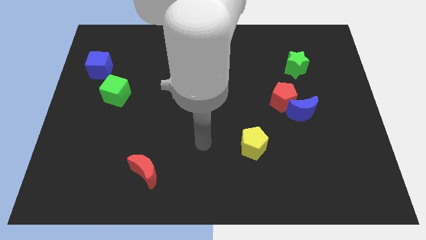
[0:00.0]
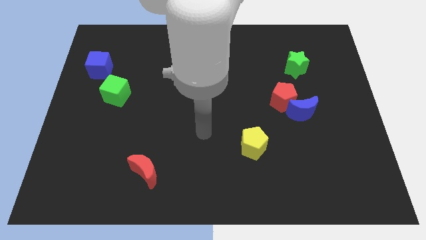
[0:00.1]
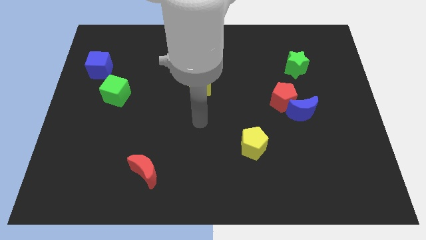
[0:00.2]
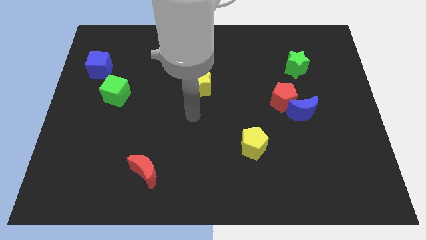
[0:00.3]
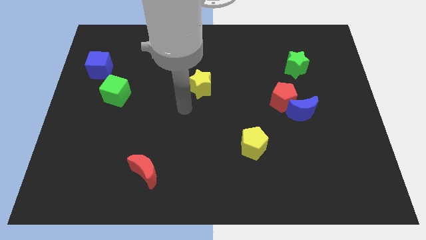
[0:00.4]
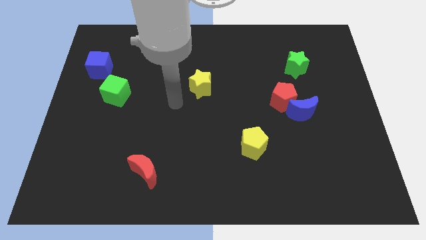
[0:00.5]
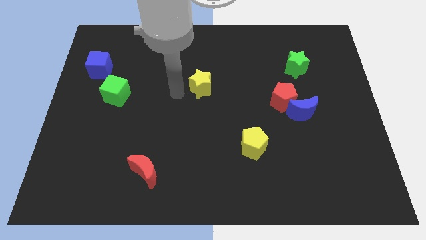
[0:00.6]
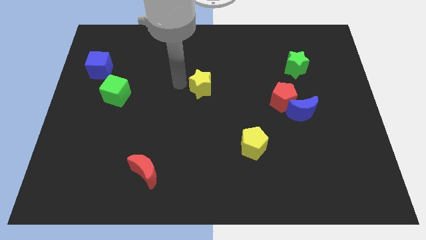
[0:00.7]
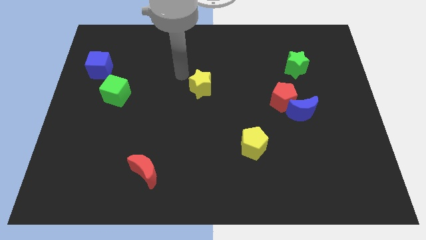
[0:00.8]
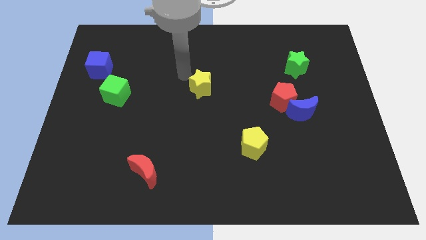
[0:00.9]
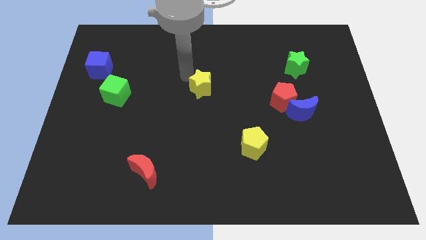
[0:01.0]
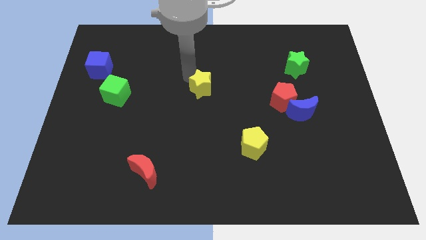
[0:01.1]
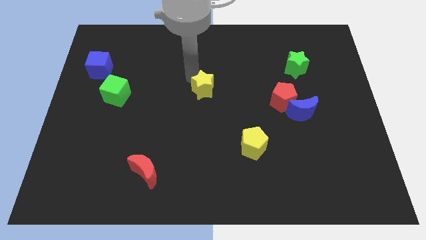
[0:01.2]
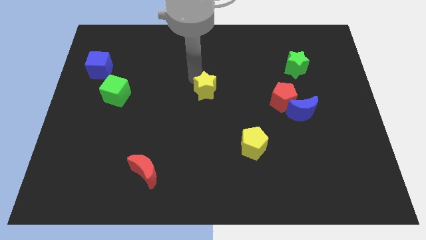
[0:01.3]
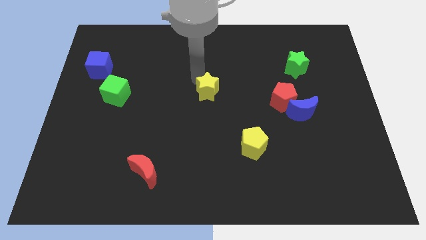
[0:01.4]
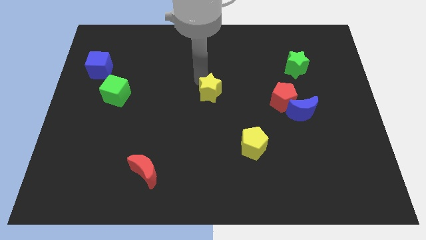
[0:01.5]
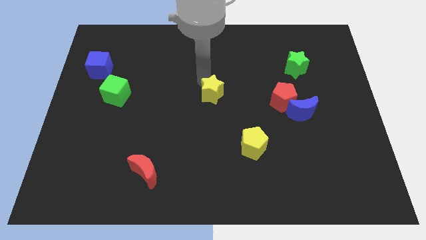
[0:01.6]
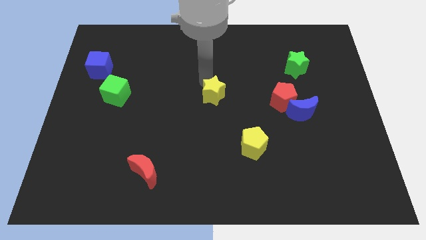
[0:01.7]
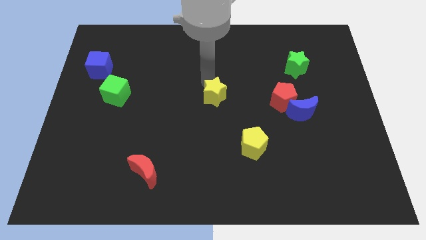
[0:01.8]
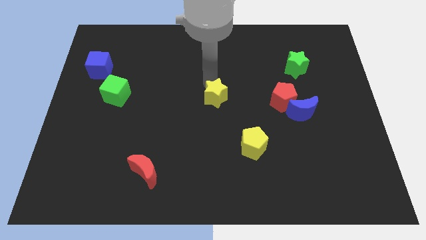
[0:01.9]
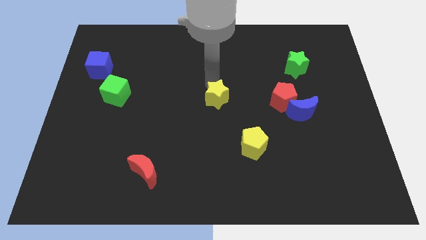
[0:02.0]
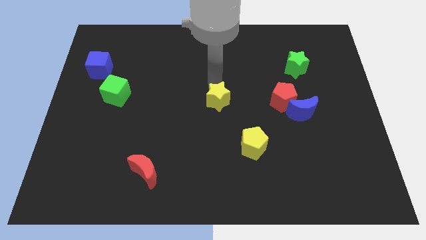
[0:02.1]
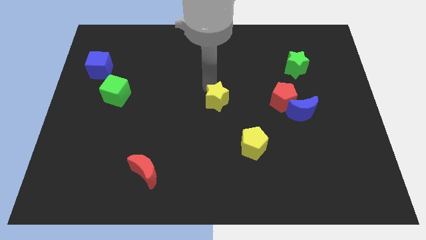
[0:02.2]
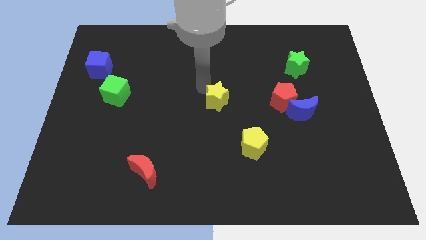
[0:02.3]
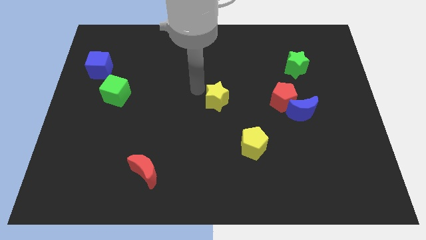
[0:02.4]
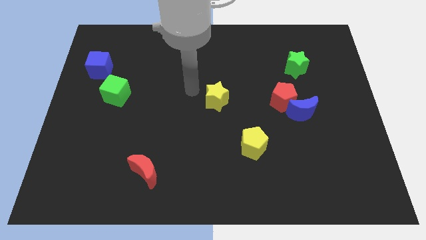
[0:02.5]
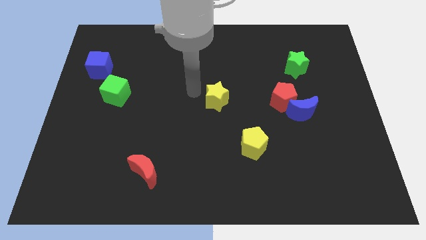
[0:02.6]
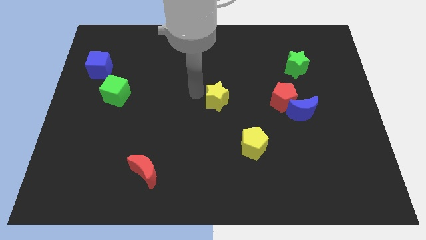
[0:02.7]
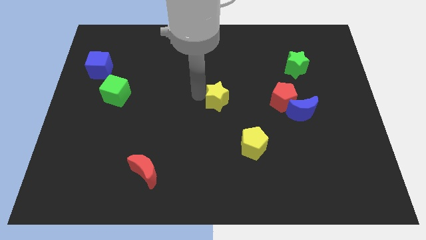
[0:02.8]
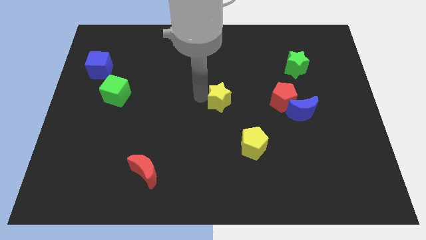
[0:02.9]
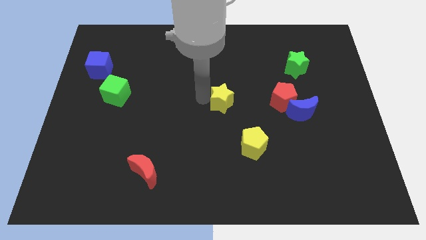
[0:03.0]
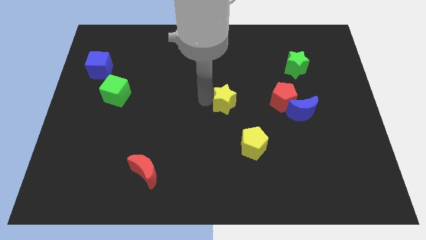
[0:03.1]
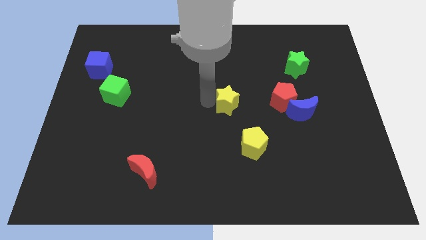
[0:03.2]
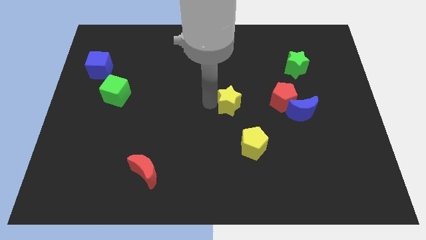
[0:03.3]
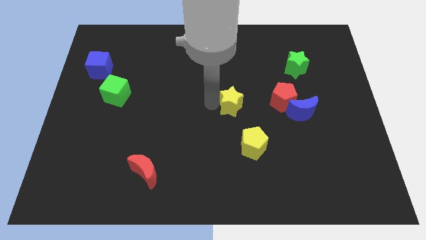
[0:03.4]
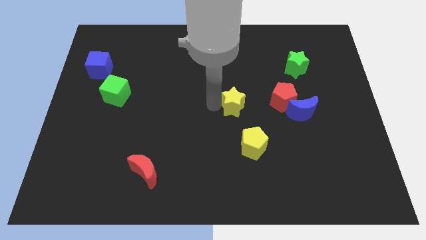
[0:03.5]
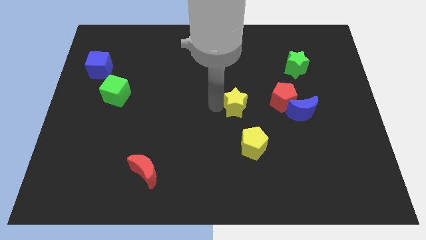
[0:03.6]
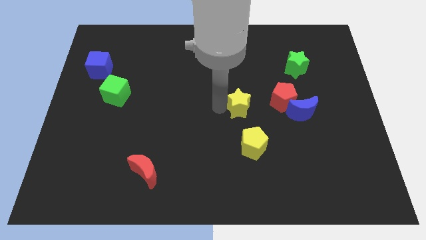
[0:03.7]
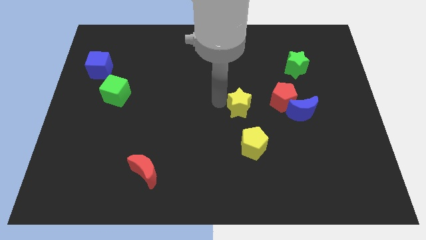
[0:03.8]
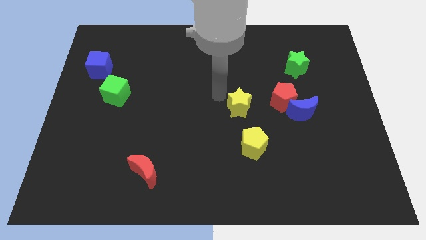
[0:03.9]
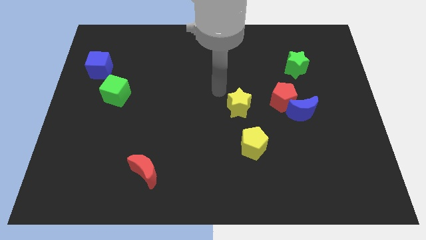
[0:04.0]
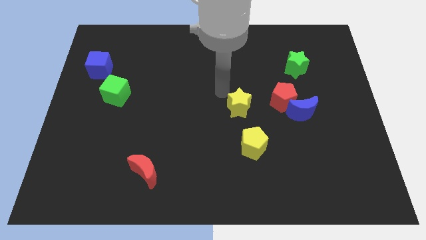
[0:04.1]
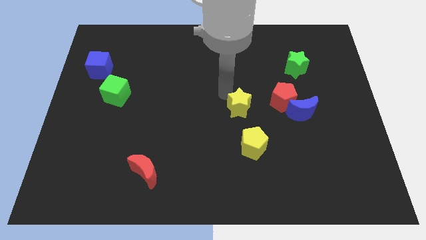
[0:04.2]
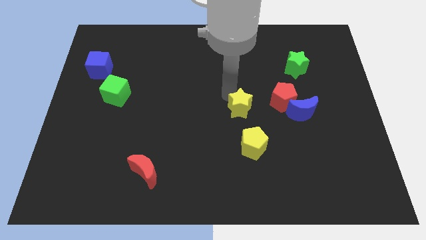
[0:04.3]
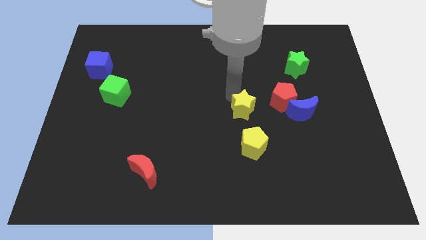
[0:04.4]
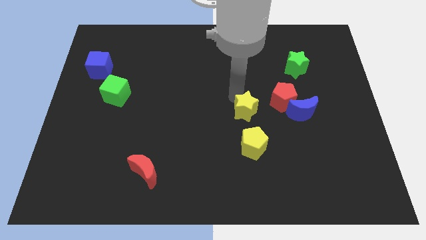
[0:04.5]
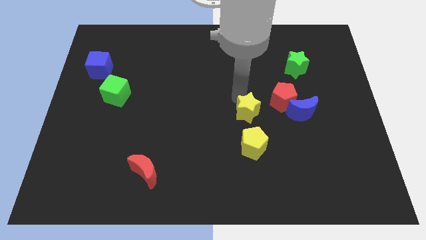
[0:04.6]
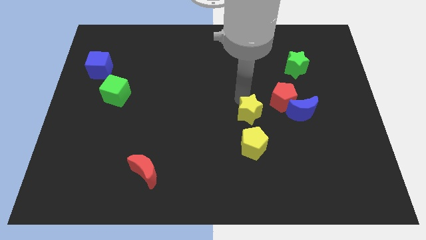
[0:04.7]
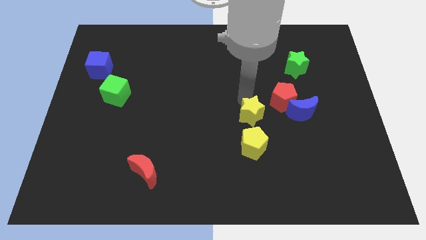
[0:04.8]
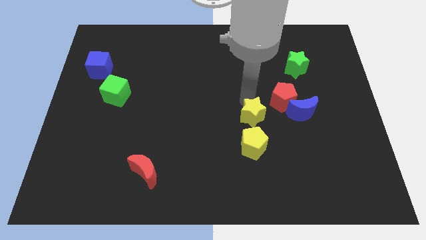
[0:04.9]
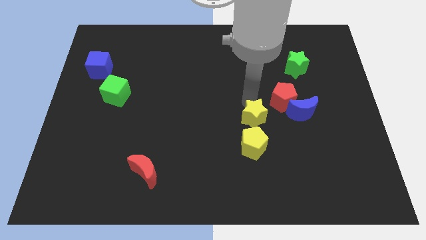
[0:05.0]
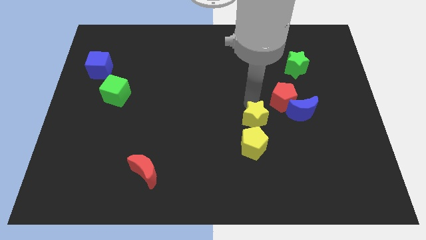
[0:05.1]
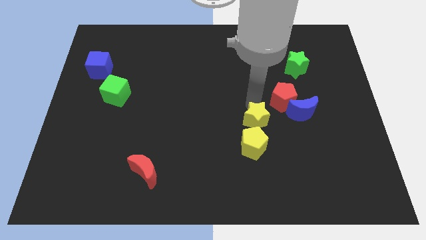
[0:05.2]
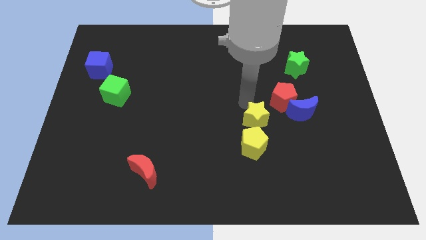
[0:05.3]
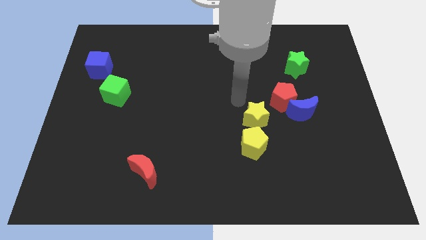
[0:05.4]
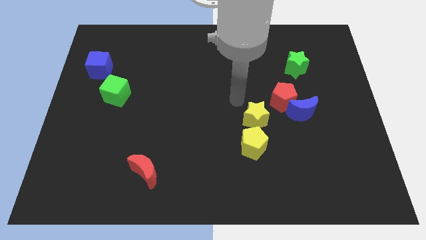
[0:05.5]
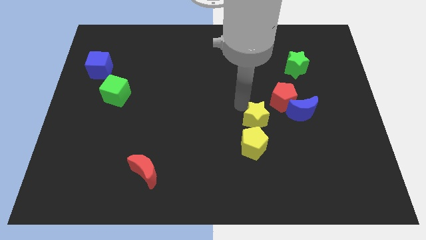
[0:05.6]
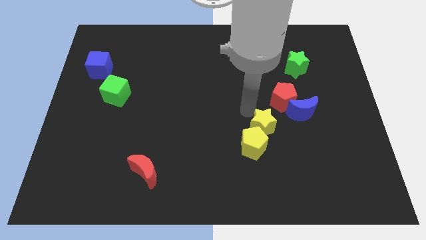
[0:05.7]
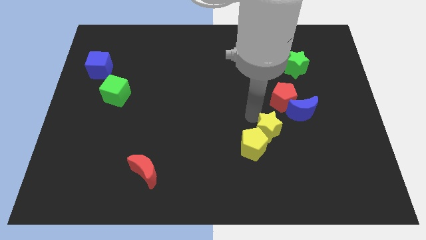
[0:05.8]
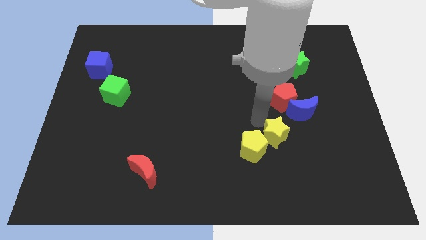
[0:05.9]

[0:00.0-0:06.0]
slide the yellow star diagonally downwards and right

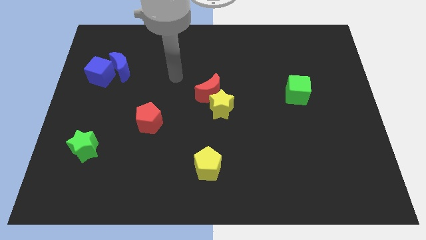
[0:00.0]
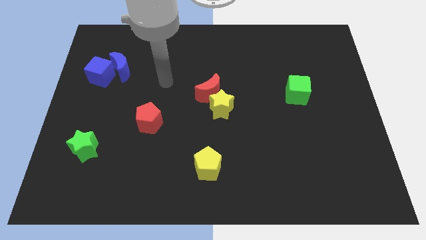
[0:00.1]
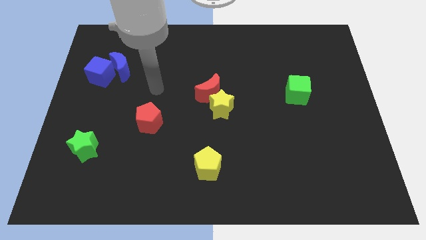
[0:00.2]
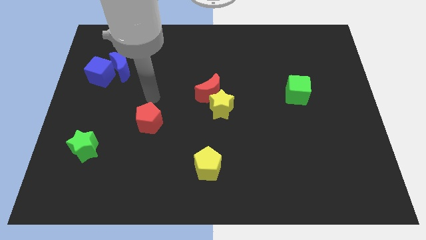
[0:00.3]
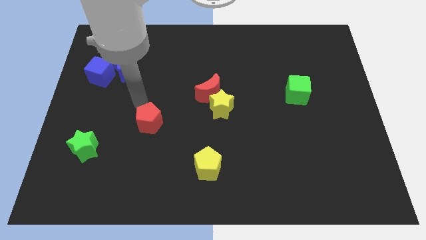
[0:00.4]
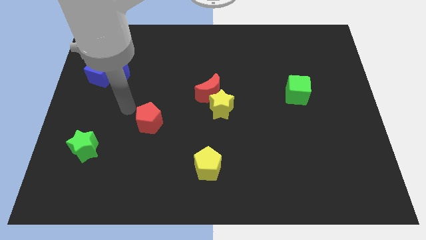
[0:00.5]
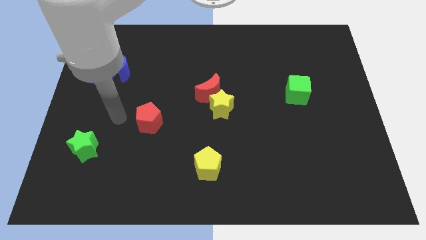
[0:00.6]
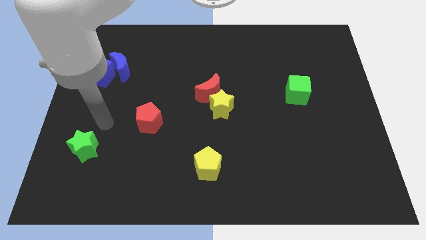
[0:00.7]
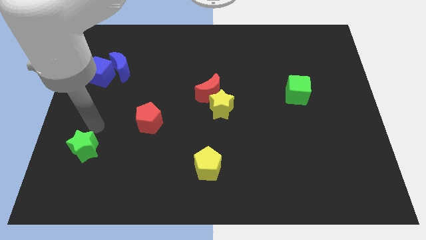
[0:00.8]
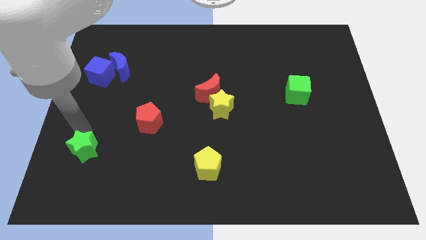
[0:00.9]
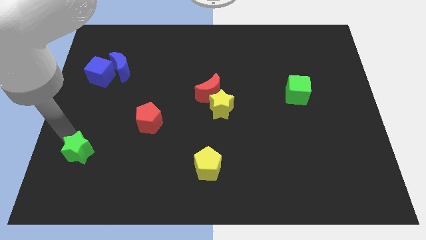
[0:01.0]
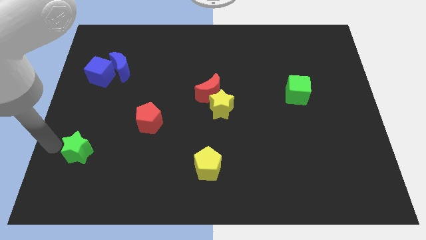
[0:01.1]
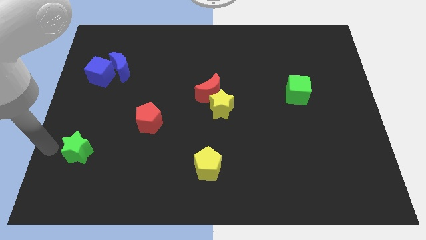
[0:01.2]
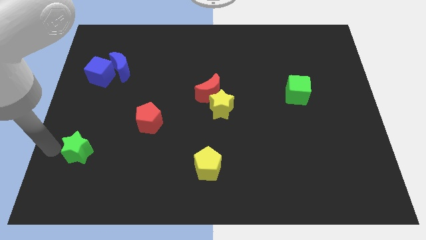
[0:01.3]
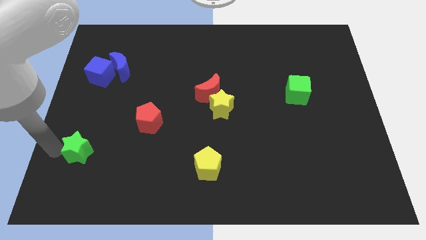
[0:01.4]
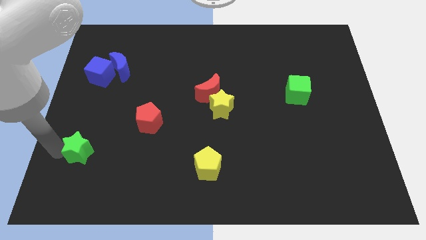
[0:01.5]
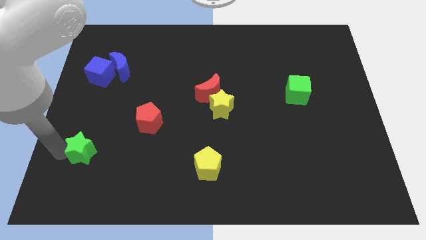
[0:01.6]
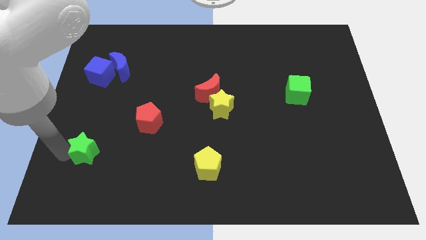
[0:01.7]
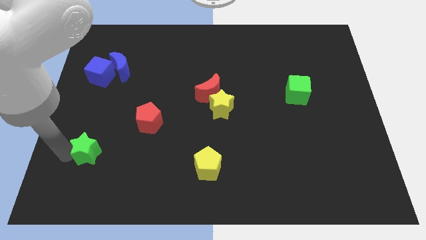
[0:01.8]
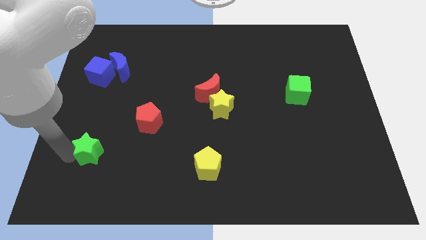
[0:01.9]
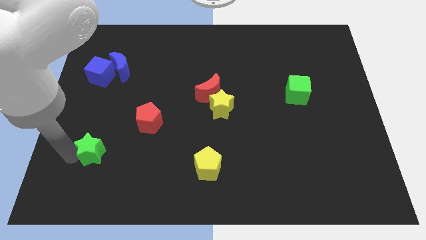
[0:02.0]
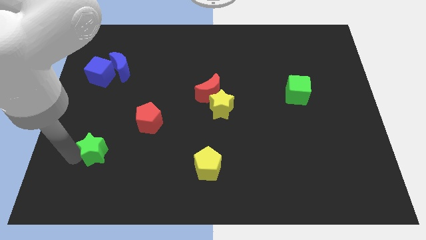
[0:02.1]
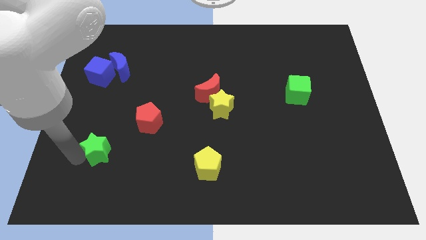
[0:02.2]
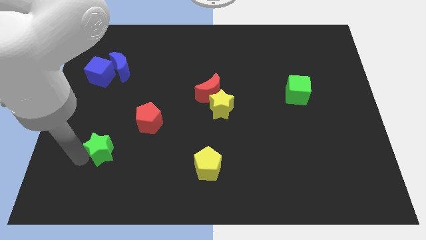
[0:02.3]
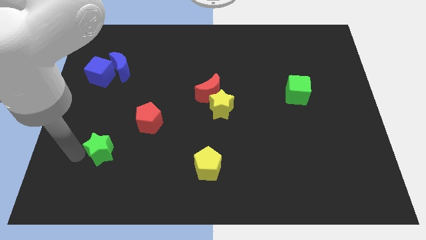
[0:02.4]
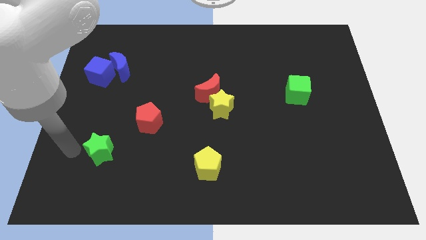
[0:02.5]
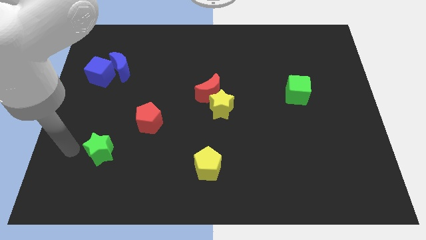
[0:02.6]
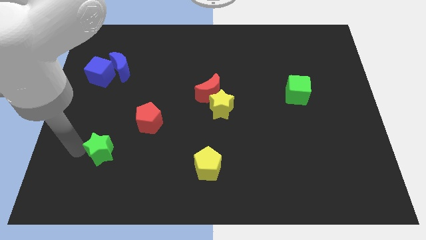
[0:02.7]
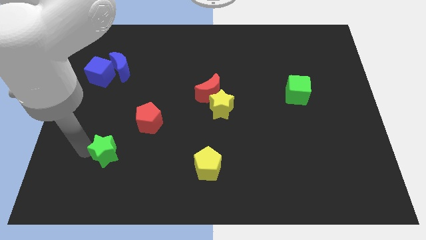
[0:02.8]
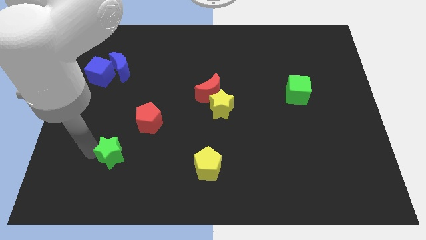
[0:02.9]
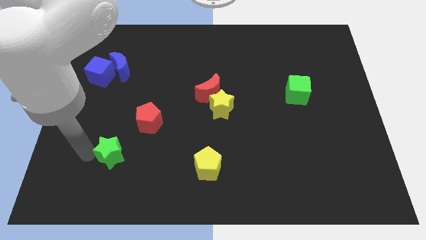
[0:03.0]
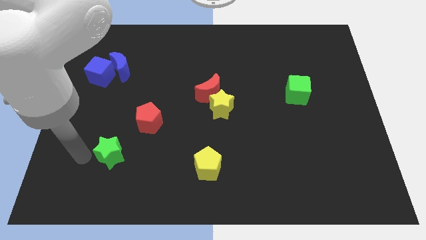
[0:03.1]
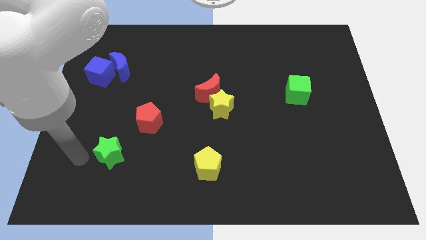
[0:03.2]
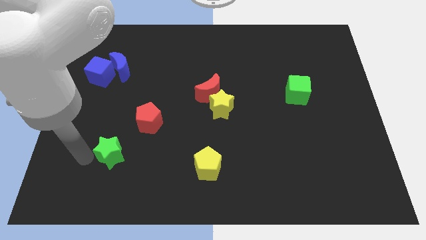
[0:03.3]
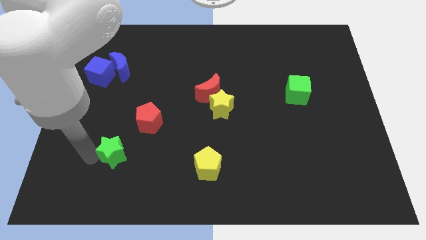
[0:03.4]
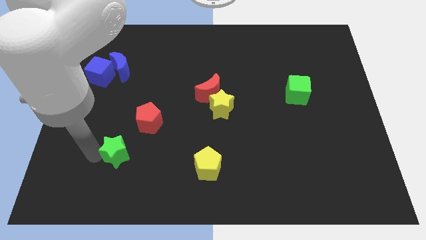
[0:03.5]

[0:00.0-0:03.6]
push the green star right a little
